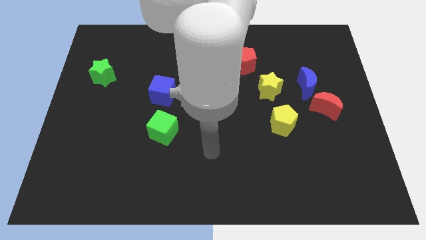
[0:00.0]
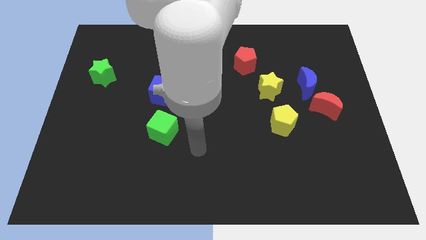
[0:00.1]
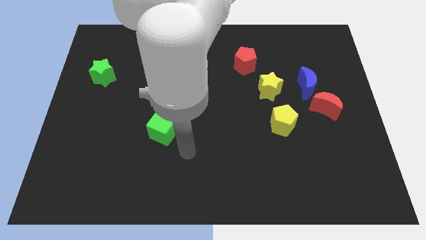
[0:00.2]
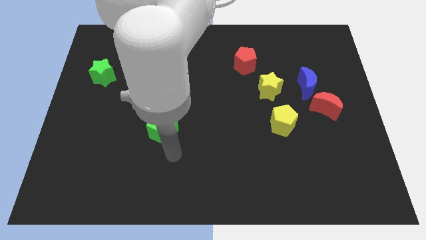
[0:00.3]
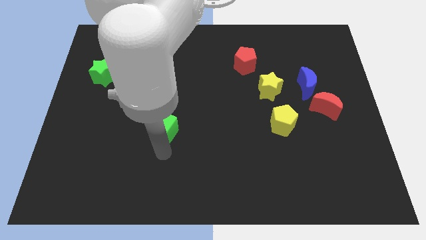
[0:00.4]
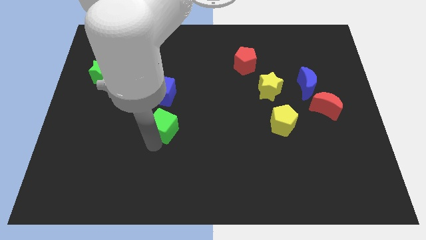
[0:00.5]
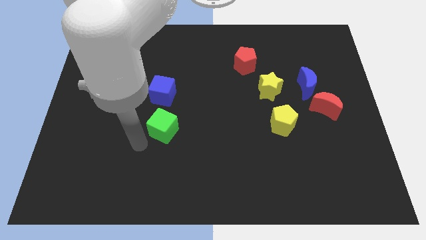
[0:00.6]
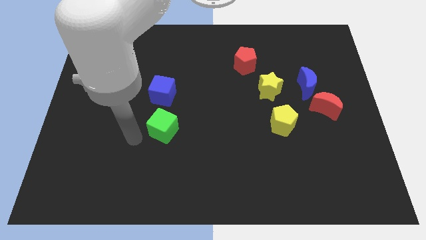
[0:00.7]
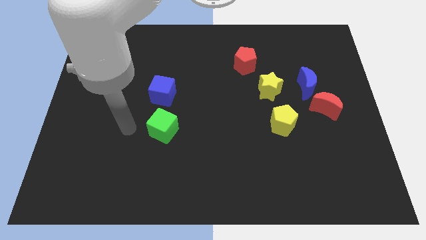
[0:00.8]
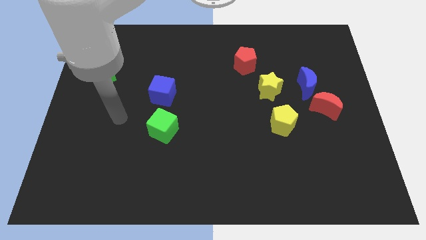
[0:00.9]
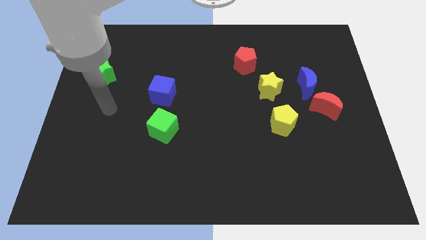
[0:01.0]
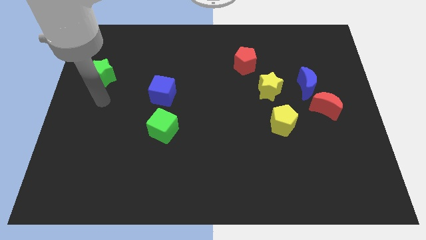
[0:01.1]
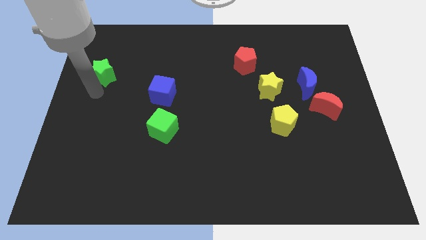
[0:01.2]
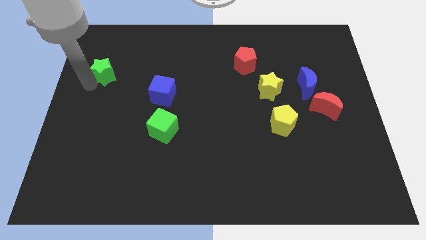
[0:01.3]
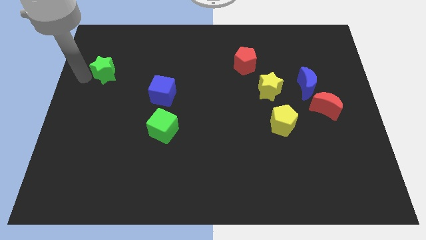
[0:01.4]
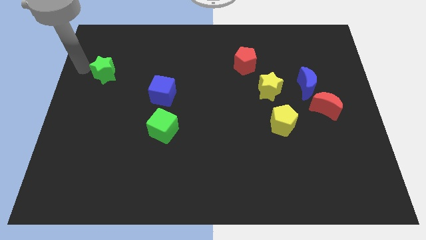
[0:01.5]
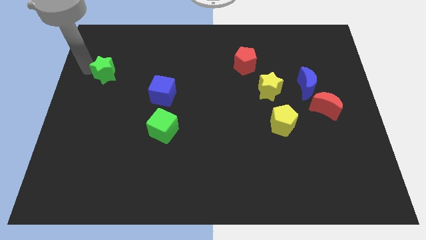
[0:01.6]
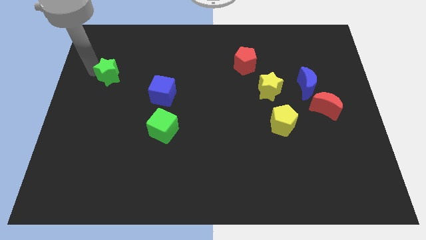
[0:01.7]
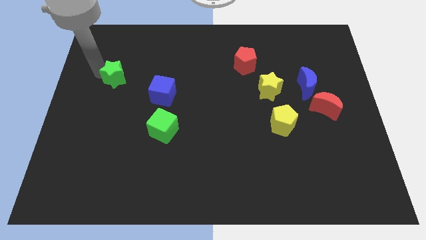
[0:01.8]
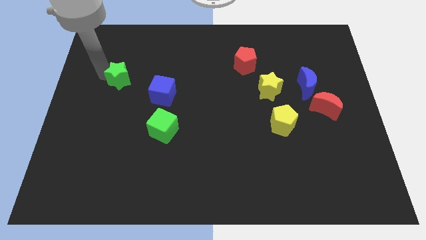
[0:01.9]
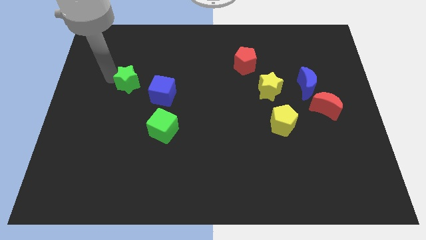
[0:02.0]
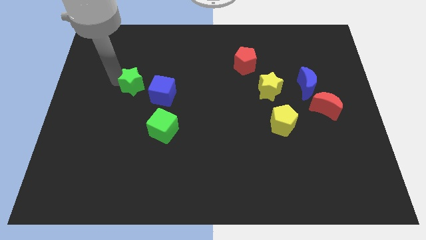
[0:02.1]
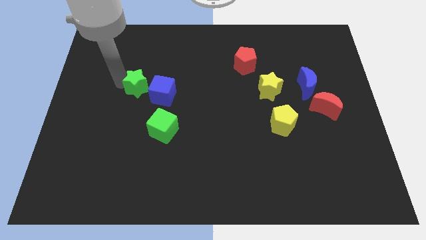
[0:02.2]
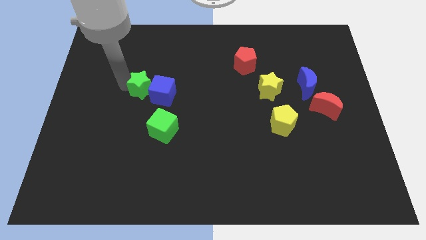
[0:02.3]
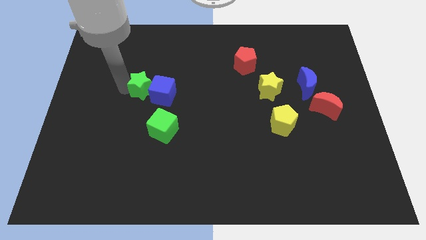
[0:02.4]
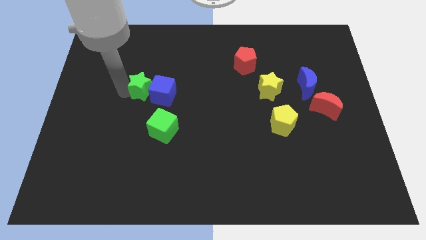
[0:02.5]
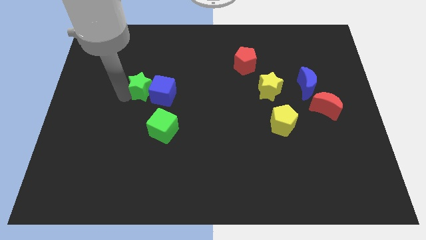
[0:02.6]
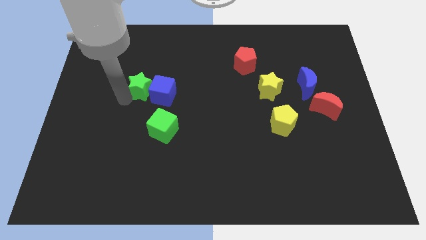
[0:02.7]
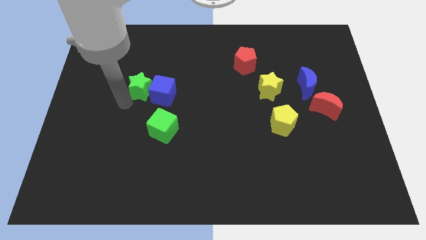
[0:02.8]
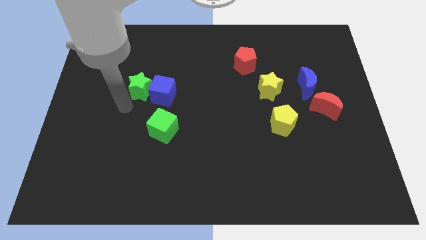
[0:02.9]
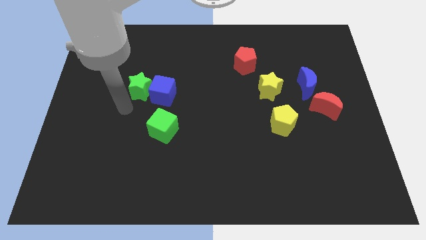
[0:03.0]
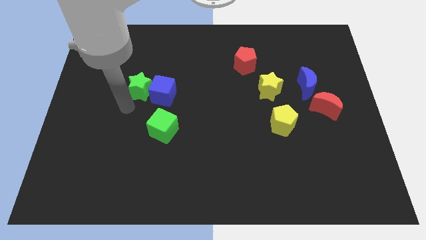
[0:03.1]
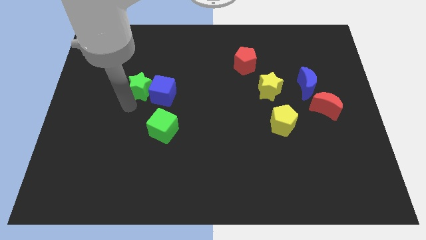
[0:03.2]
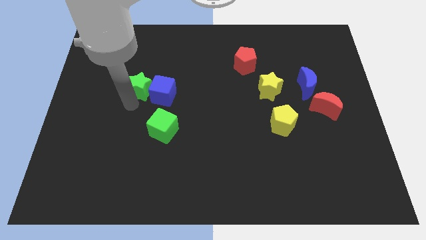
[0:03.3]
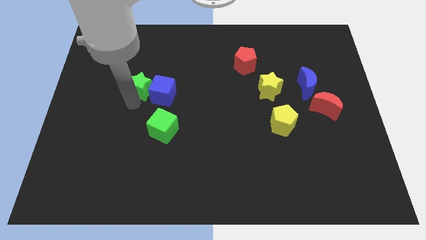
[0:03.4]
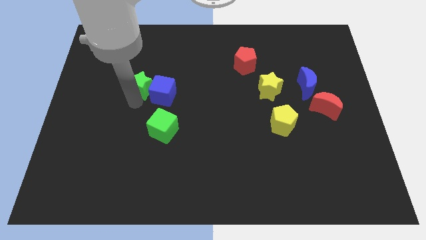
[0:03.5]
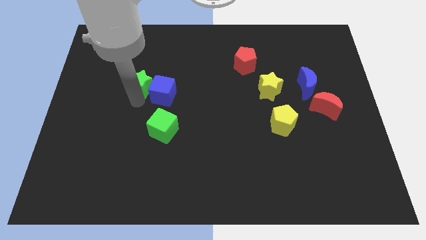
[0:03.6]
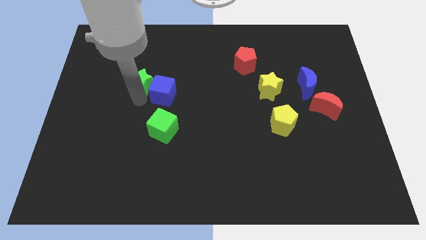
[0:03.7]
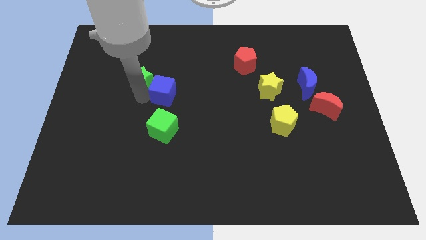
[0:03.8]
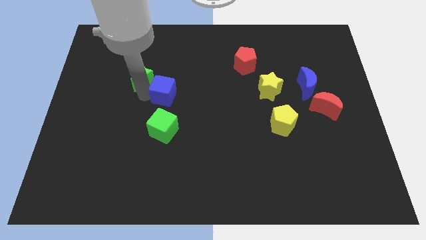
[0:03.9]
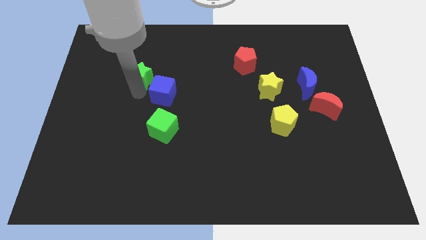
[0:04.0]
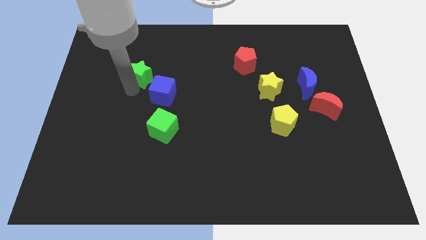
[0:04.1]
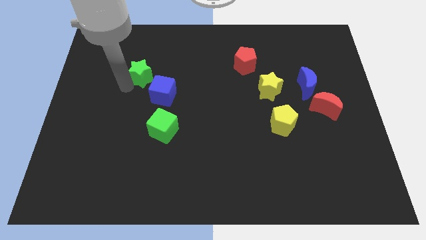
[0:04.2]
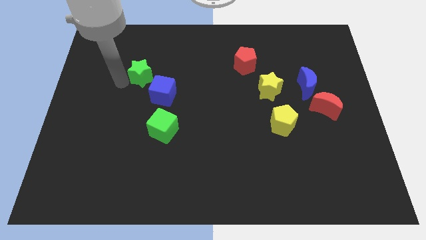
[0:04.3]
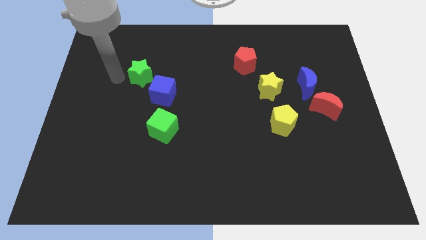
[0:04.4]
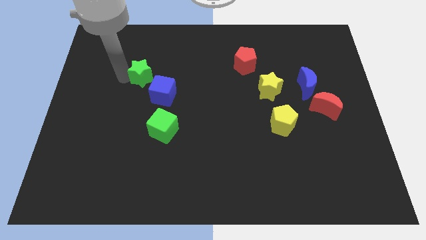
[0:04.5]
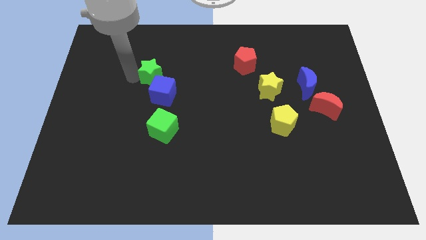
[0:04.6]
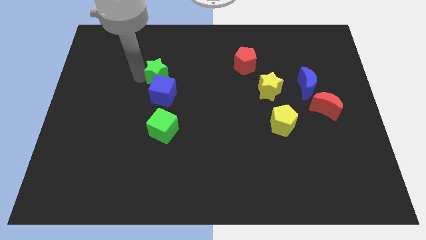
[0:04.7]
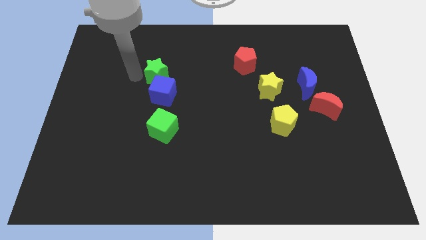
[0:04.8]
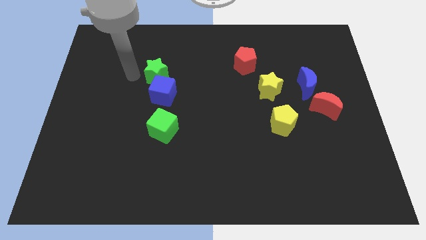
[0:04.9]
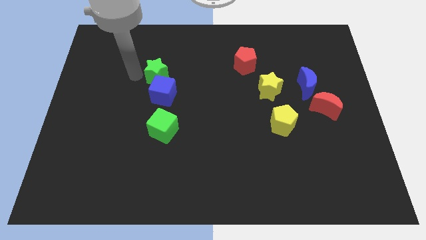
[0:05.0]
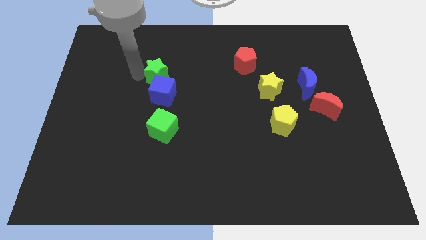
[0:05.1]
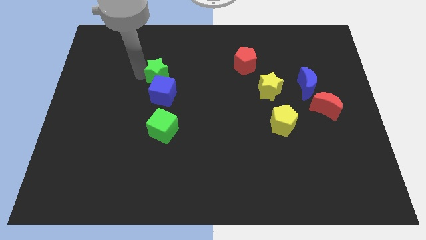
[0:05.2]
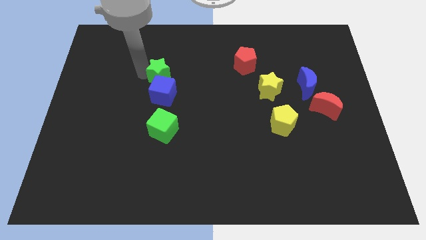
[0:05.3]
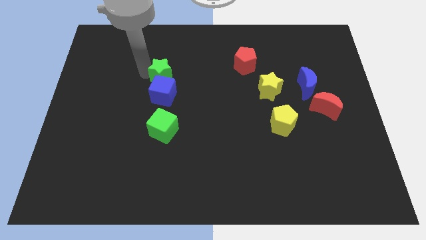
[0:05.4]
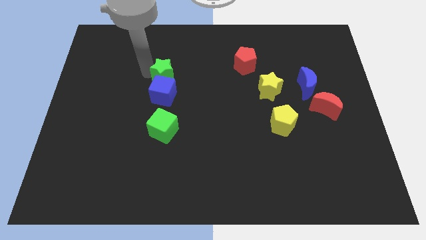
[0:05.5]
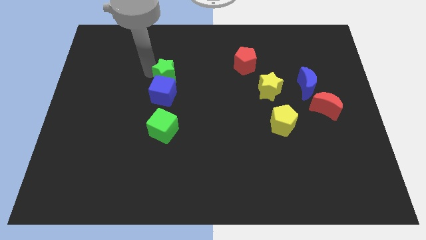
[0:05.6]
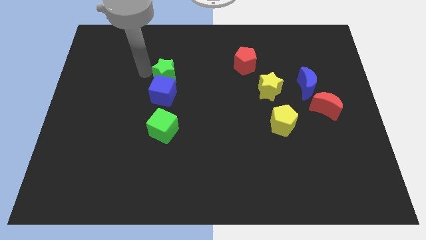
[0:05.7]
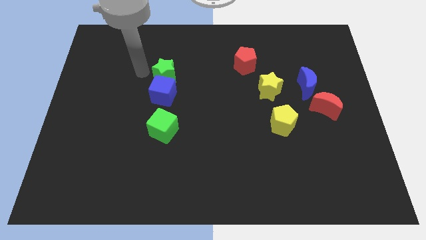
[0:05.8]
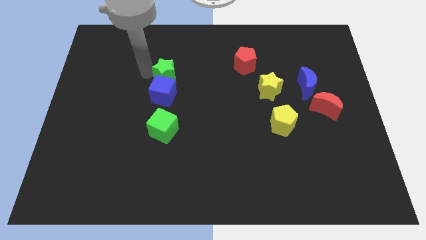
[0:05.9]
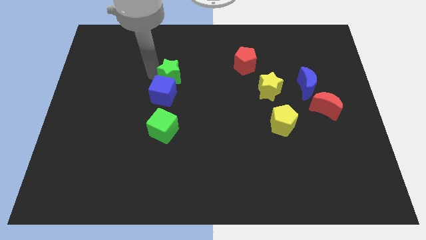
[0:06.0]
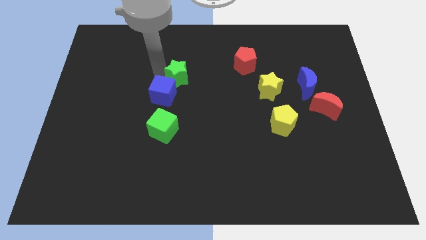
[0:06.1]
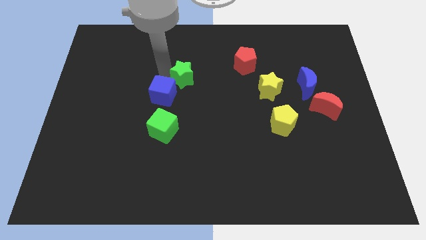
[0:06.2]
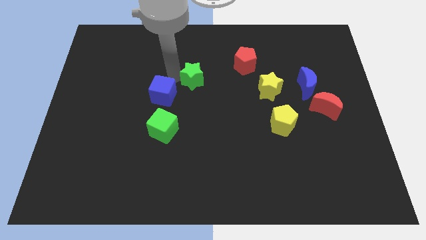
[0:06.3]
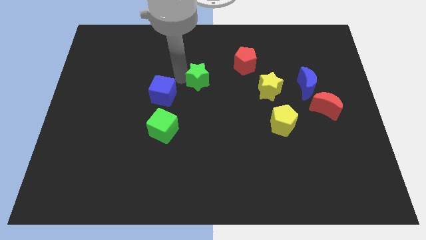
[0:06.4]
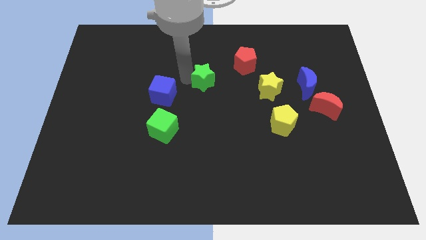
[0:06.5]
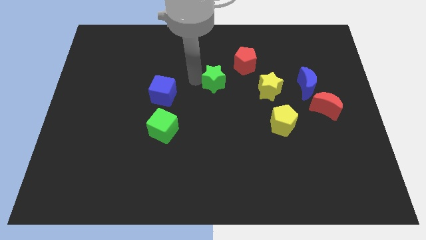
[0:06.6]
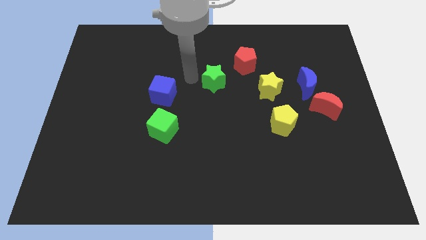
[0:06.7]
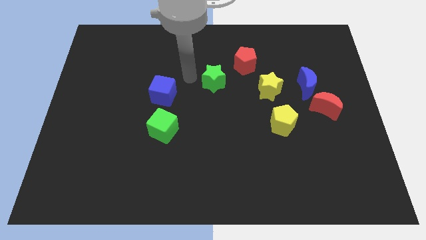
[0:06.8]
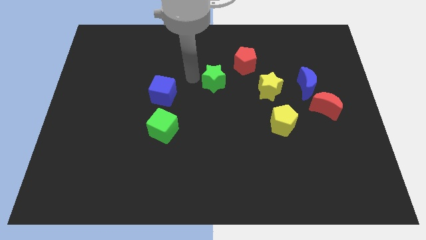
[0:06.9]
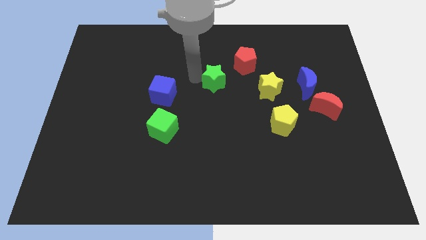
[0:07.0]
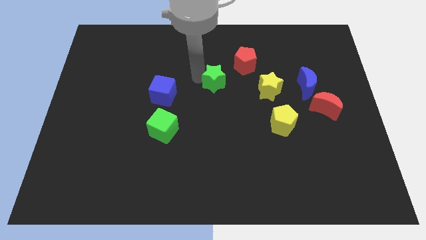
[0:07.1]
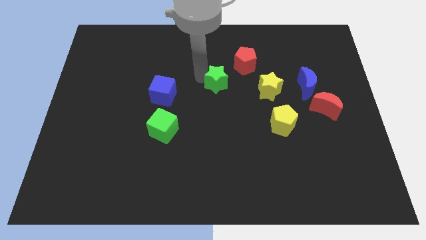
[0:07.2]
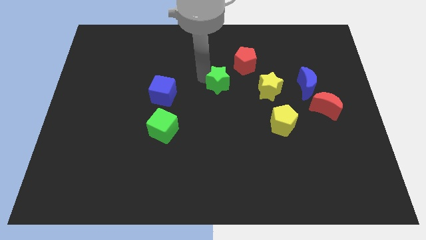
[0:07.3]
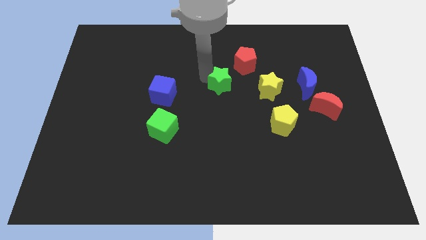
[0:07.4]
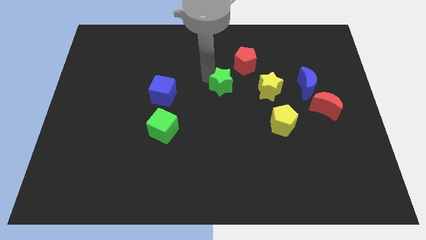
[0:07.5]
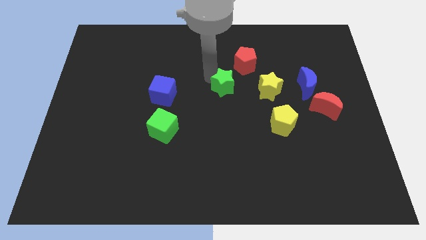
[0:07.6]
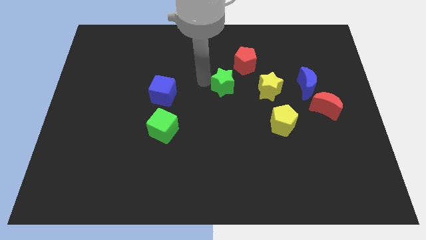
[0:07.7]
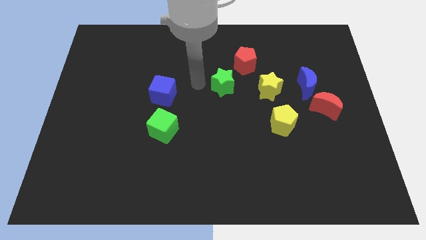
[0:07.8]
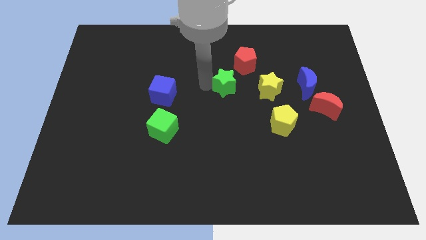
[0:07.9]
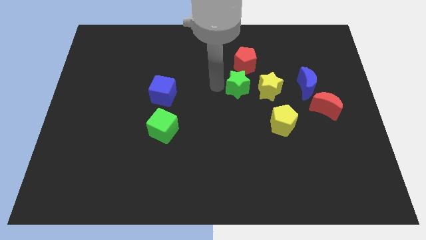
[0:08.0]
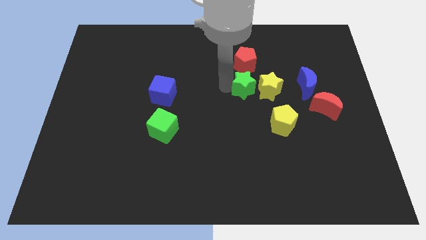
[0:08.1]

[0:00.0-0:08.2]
move the green star next to the yellow star
